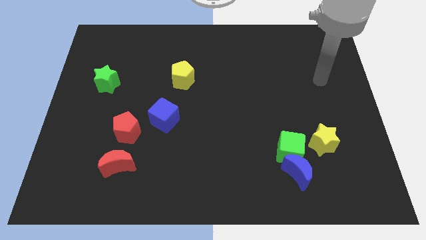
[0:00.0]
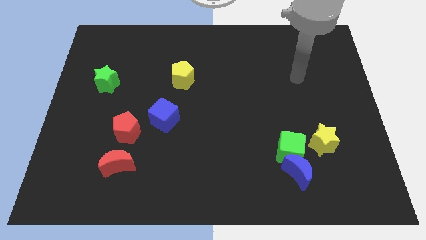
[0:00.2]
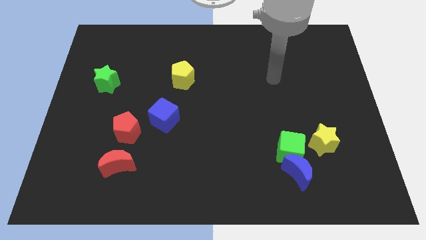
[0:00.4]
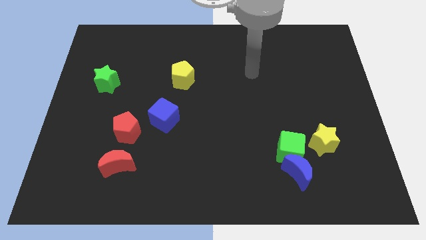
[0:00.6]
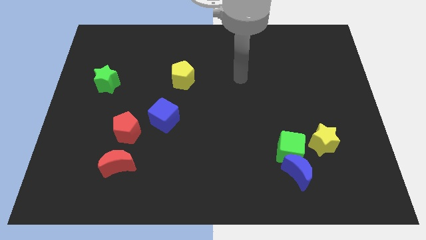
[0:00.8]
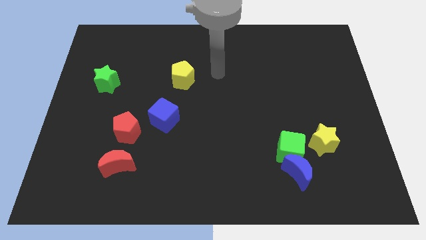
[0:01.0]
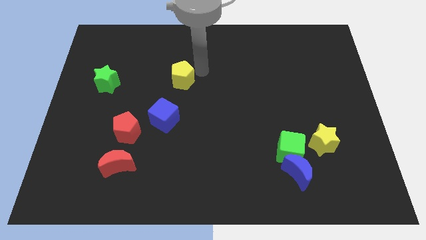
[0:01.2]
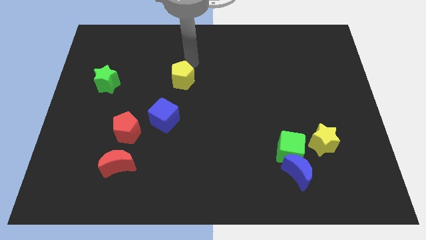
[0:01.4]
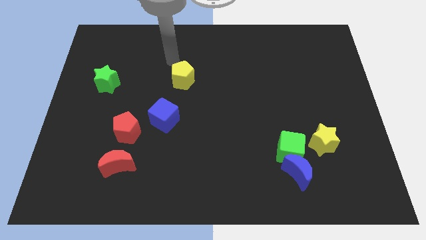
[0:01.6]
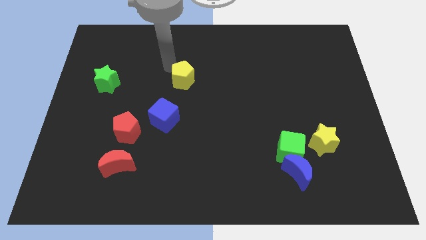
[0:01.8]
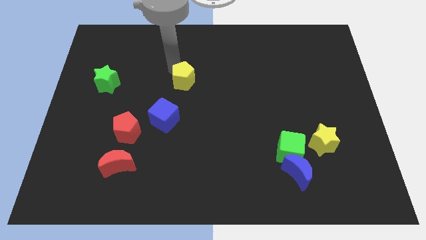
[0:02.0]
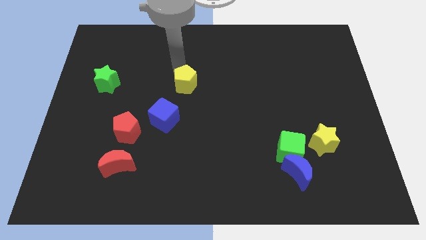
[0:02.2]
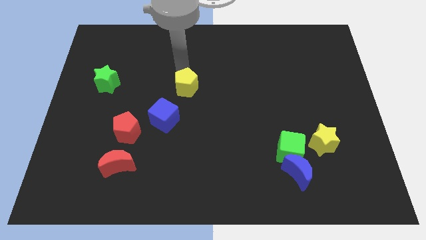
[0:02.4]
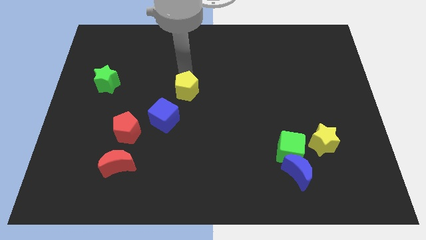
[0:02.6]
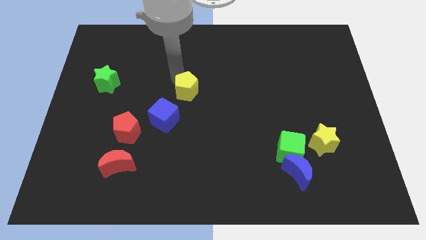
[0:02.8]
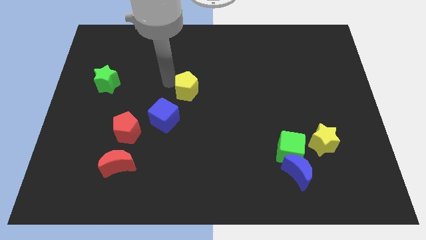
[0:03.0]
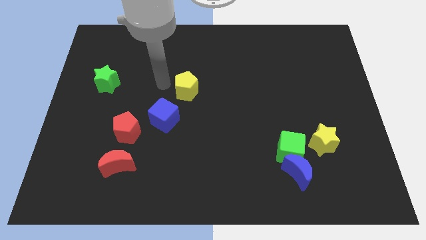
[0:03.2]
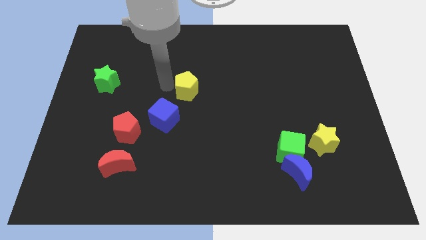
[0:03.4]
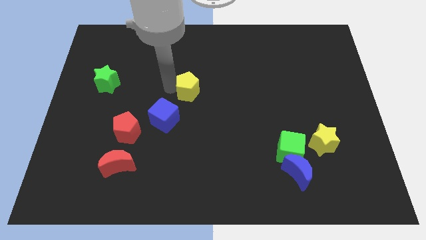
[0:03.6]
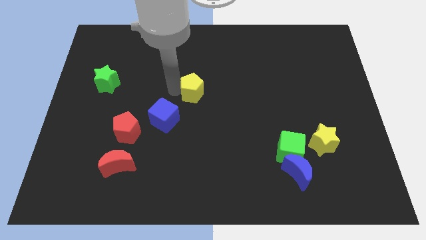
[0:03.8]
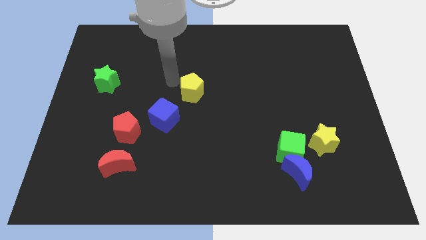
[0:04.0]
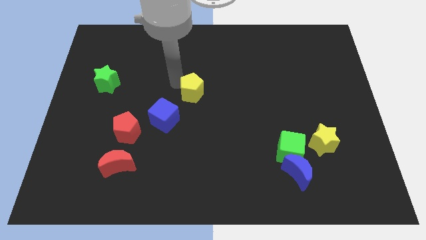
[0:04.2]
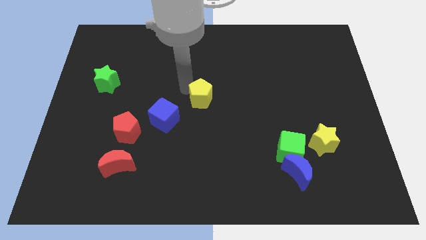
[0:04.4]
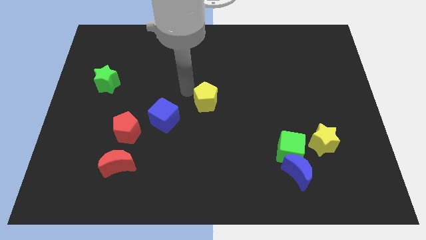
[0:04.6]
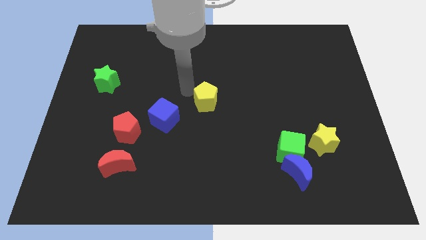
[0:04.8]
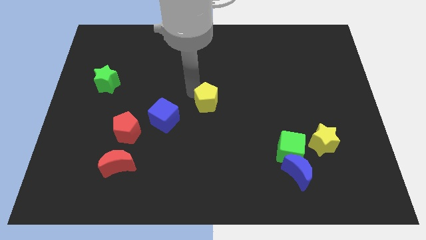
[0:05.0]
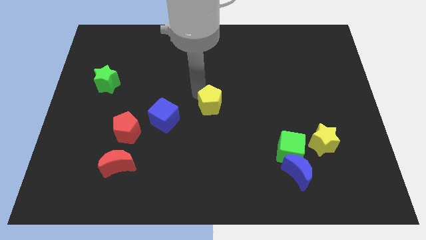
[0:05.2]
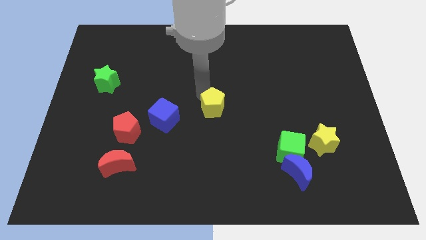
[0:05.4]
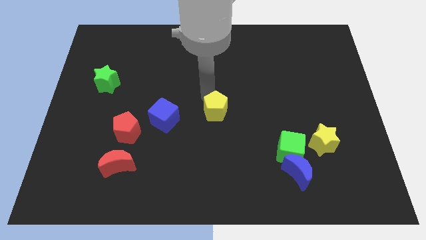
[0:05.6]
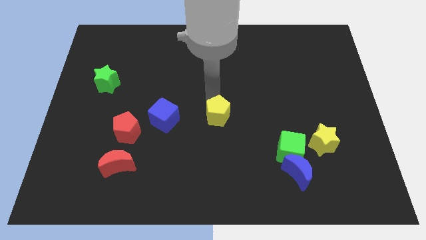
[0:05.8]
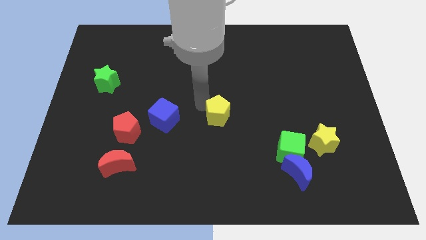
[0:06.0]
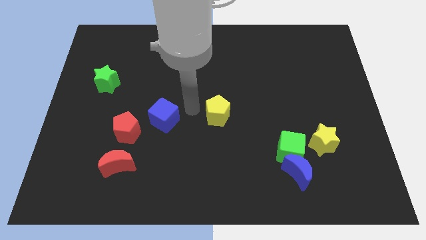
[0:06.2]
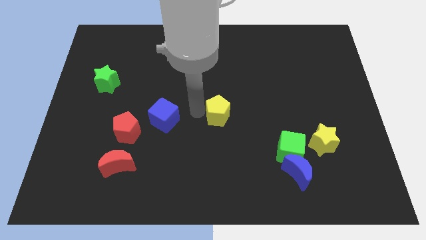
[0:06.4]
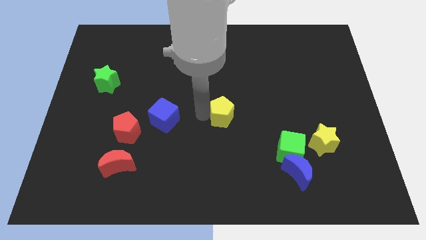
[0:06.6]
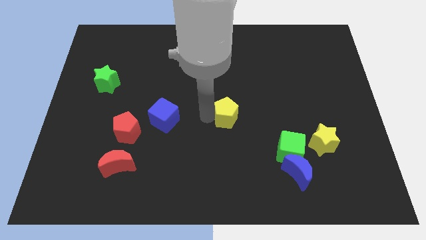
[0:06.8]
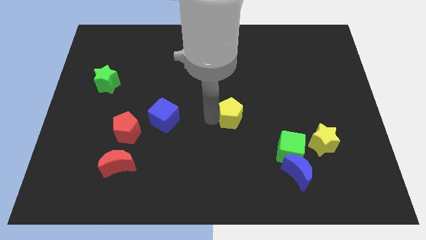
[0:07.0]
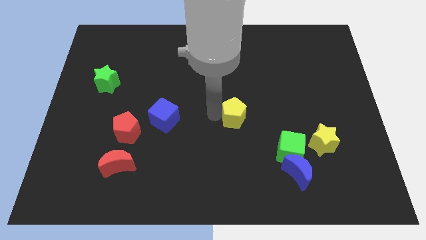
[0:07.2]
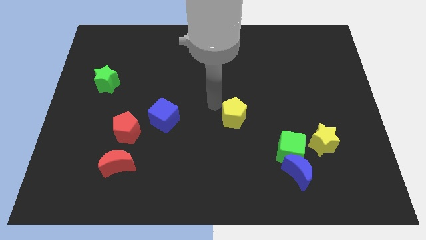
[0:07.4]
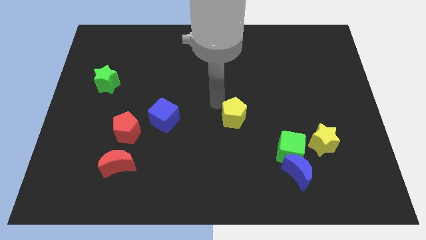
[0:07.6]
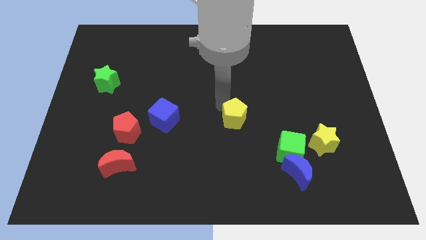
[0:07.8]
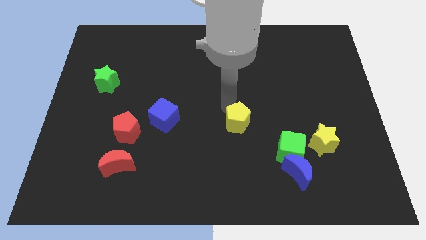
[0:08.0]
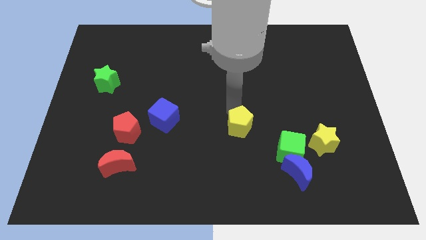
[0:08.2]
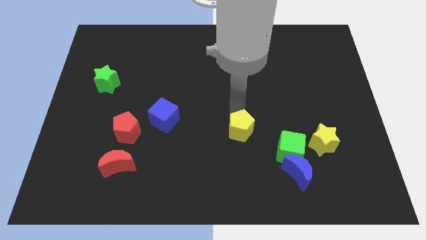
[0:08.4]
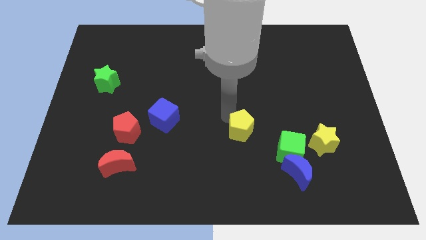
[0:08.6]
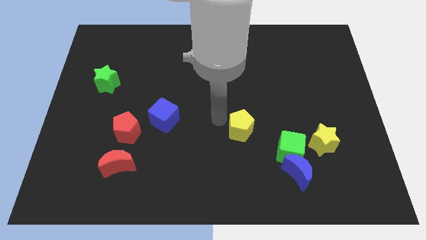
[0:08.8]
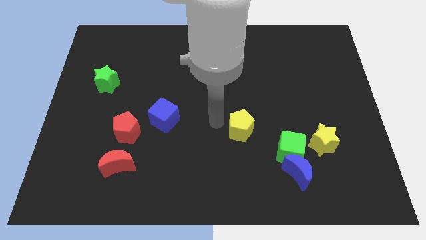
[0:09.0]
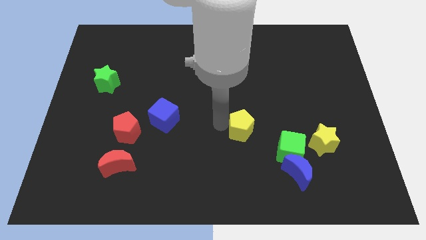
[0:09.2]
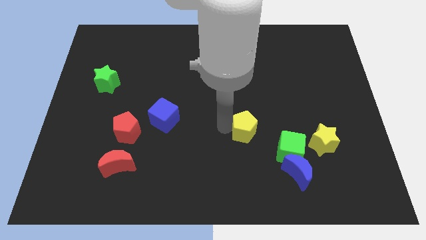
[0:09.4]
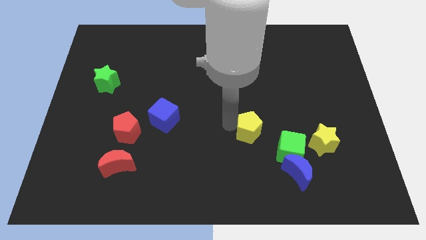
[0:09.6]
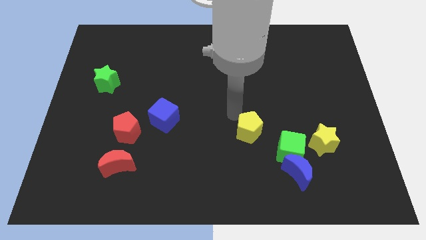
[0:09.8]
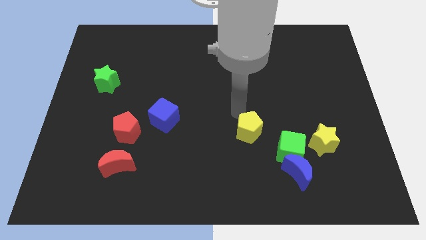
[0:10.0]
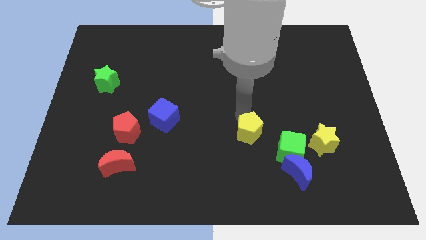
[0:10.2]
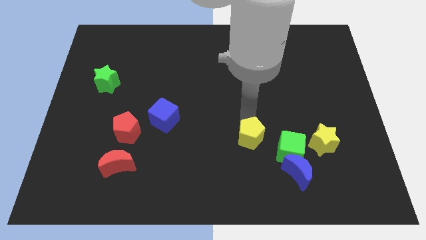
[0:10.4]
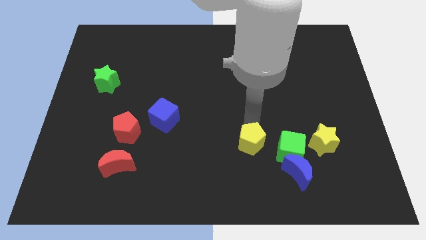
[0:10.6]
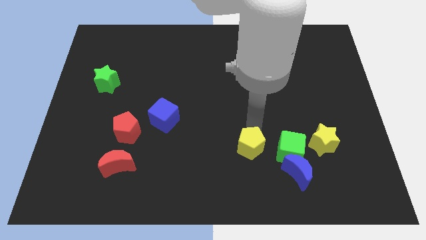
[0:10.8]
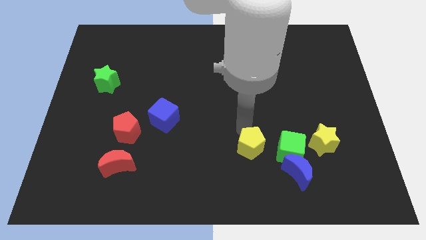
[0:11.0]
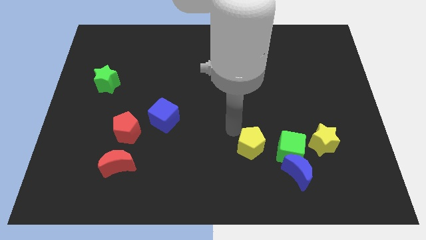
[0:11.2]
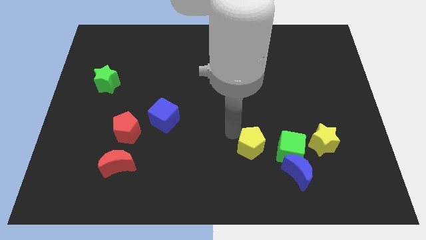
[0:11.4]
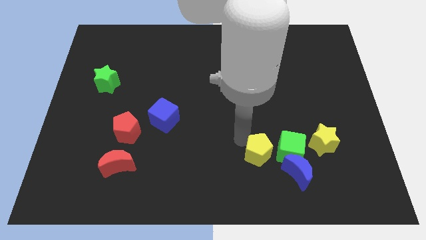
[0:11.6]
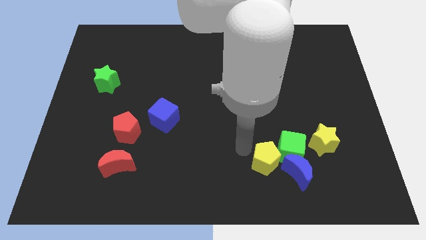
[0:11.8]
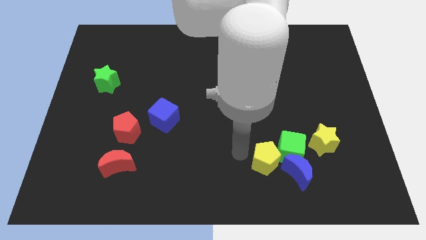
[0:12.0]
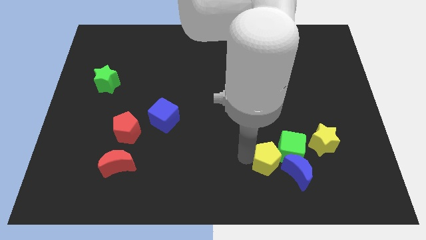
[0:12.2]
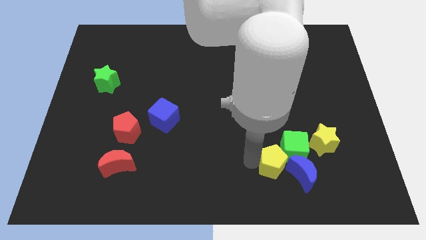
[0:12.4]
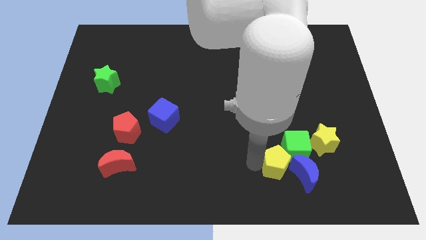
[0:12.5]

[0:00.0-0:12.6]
push the yellow pentagon towards the blue moon

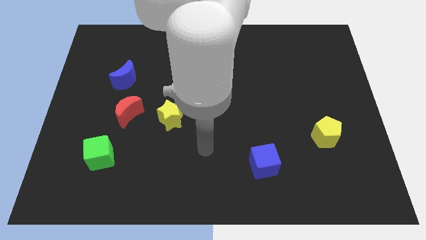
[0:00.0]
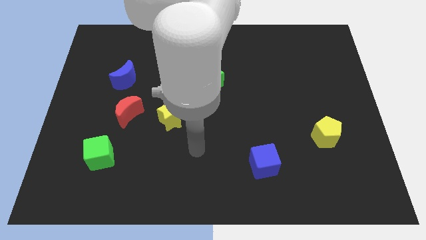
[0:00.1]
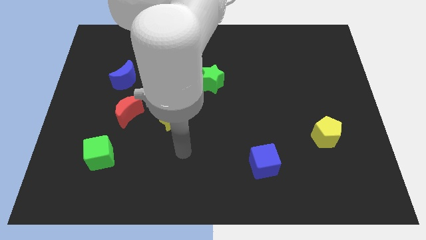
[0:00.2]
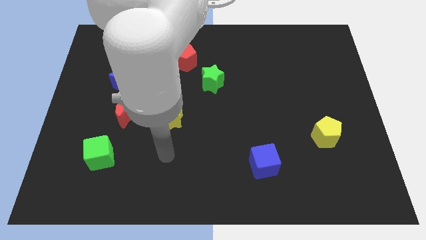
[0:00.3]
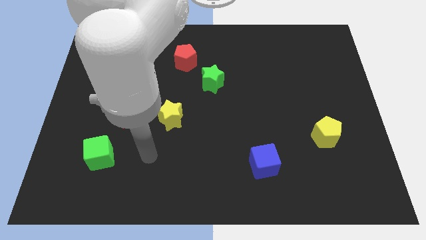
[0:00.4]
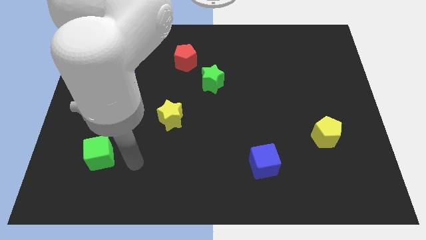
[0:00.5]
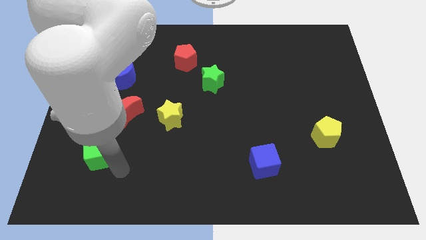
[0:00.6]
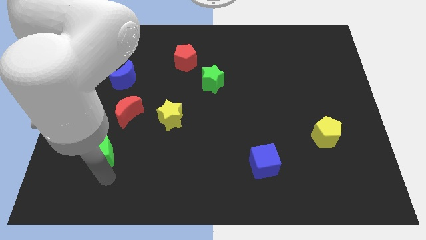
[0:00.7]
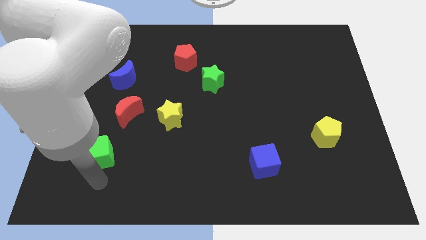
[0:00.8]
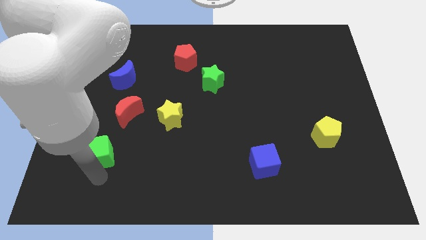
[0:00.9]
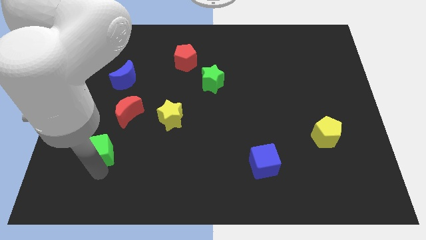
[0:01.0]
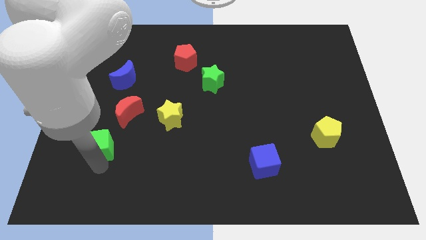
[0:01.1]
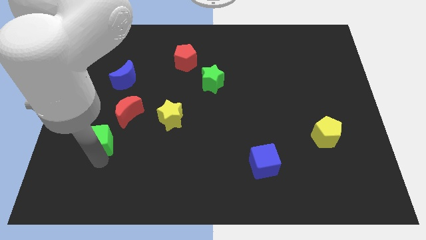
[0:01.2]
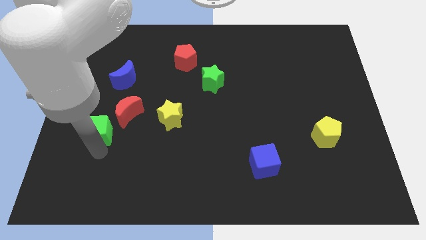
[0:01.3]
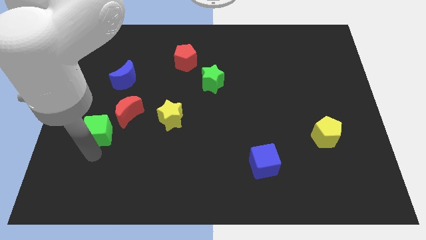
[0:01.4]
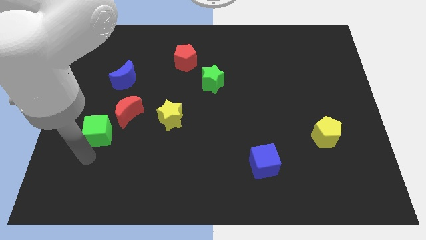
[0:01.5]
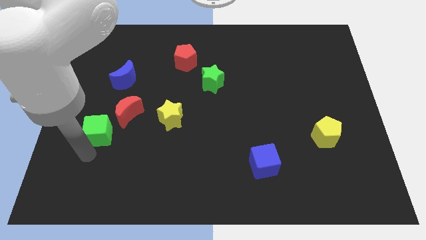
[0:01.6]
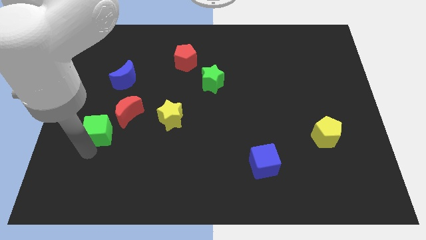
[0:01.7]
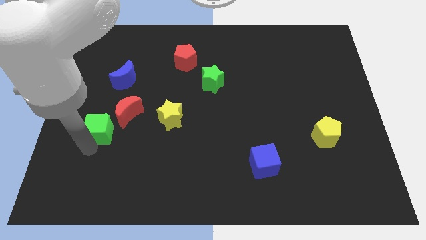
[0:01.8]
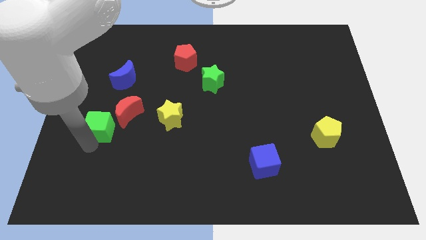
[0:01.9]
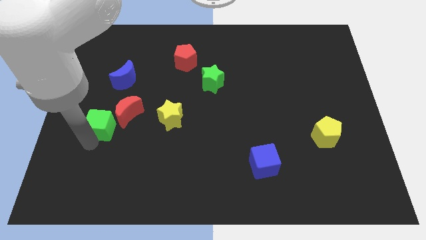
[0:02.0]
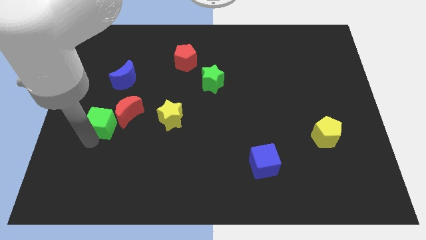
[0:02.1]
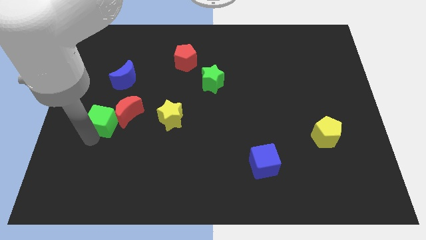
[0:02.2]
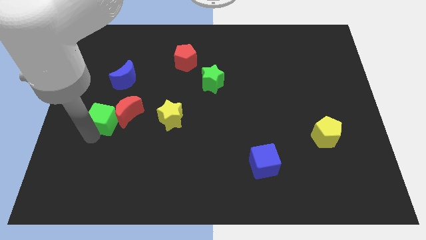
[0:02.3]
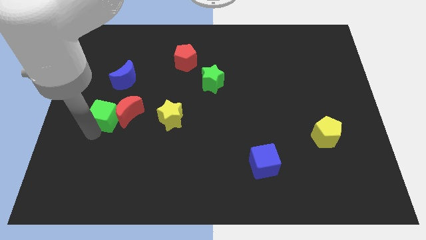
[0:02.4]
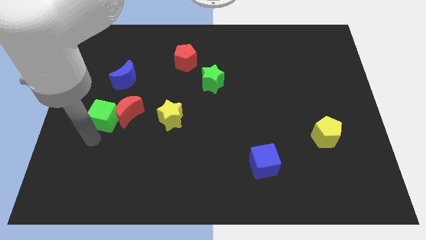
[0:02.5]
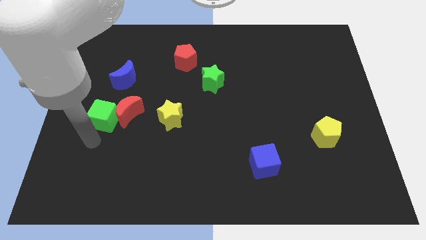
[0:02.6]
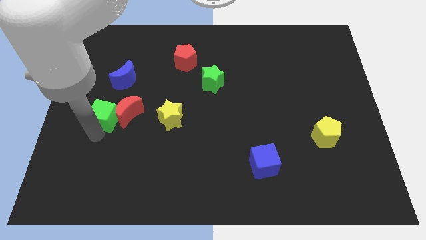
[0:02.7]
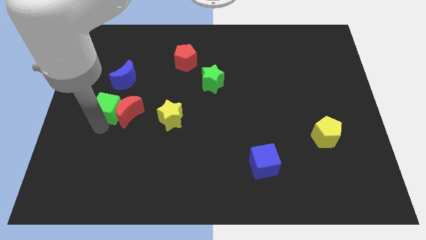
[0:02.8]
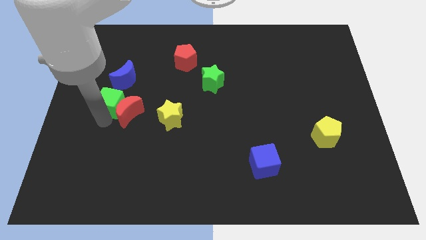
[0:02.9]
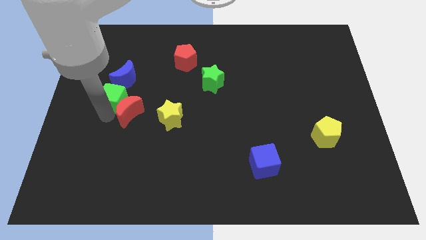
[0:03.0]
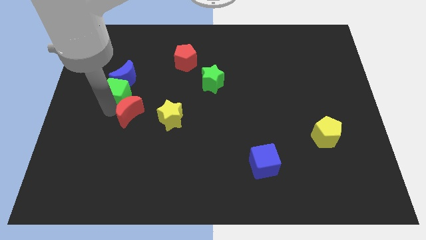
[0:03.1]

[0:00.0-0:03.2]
move the green cube close to the blue moon
